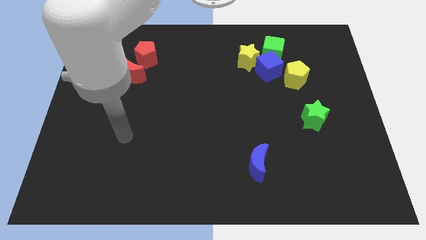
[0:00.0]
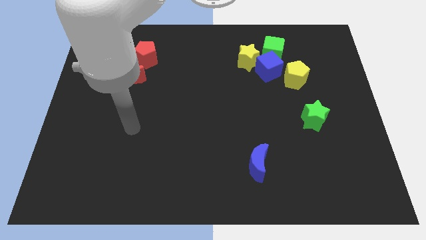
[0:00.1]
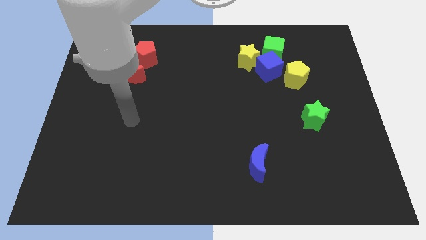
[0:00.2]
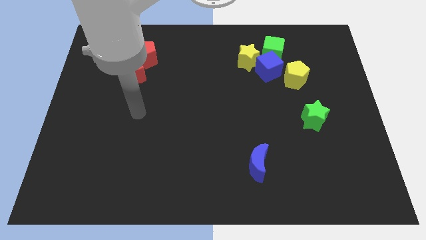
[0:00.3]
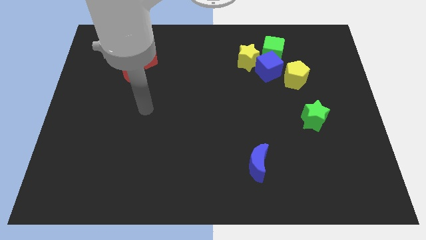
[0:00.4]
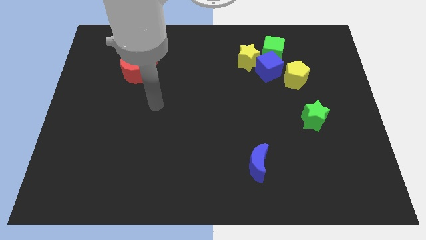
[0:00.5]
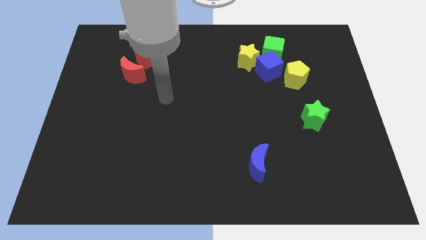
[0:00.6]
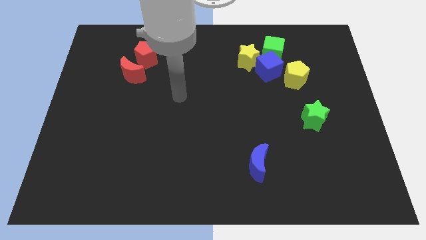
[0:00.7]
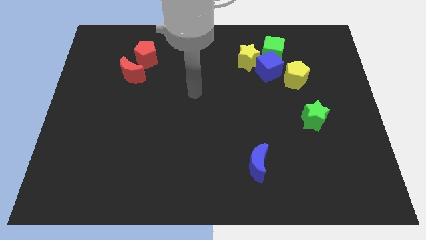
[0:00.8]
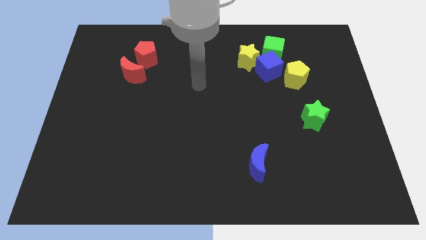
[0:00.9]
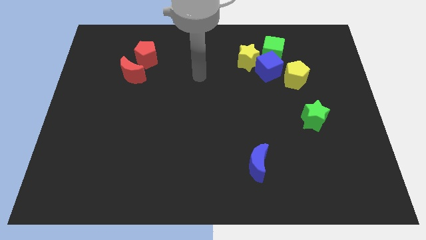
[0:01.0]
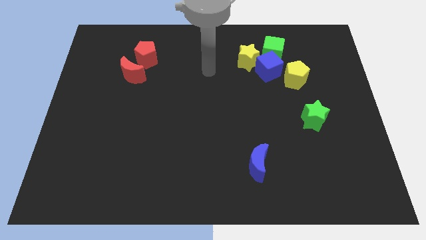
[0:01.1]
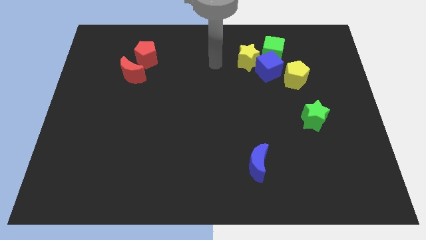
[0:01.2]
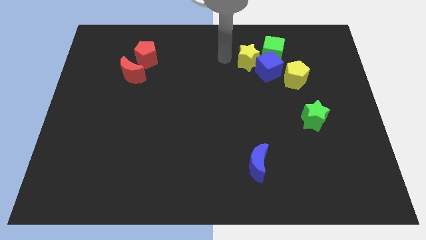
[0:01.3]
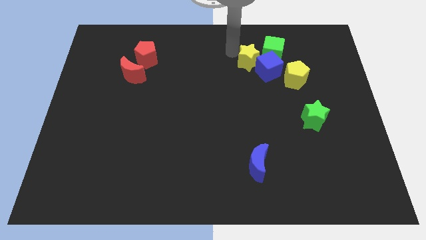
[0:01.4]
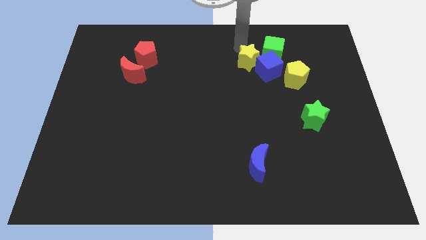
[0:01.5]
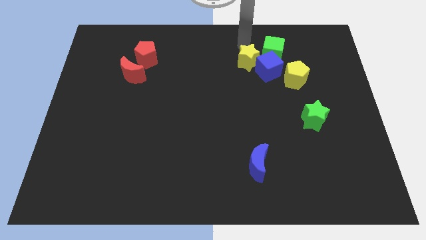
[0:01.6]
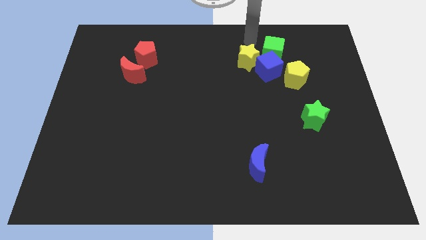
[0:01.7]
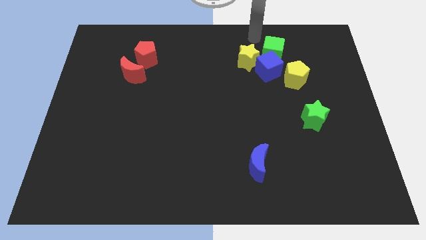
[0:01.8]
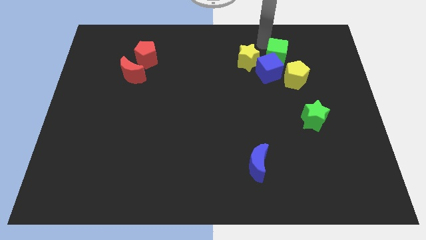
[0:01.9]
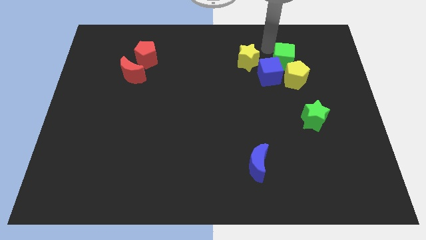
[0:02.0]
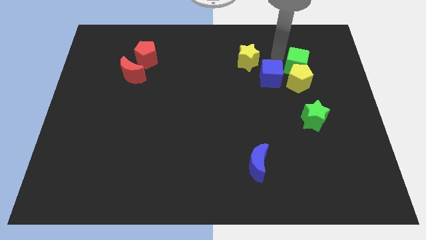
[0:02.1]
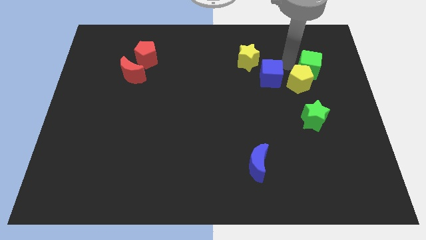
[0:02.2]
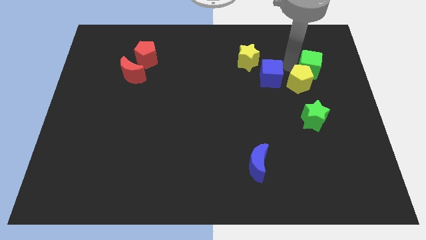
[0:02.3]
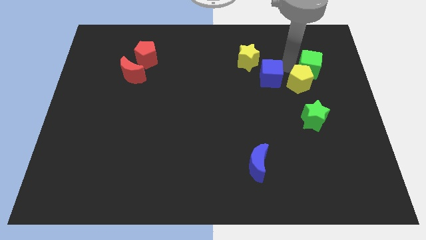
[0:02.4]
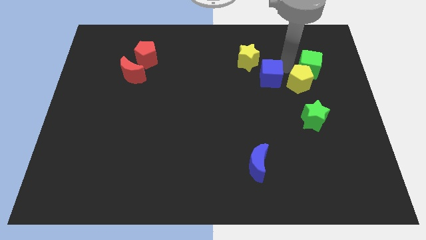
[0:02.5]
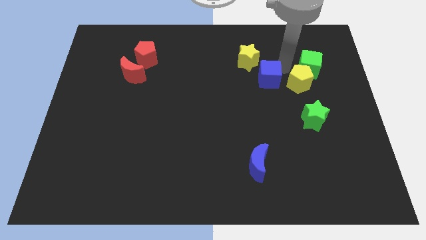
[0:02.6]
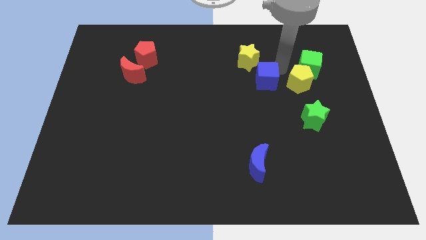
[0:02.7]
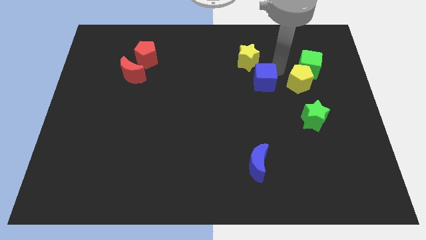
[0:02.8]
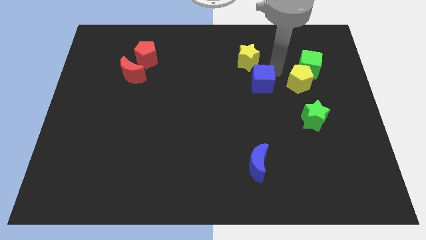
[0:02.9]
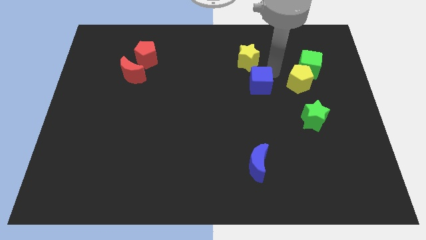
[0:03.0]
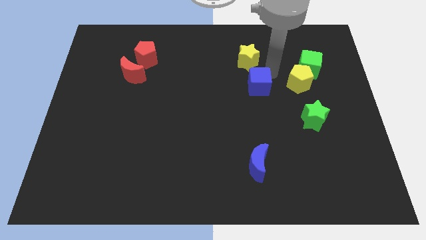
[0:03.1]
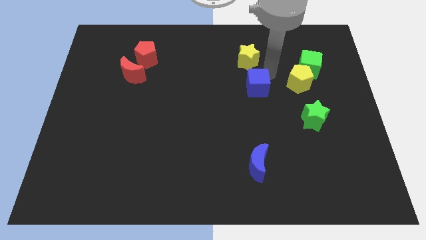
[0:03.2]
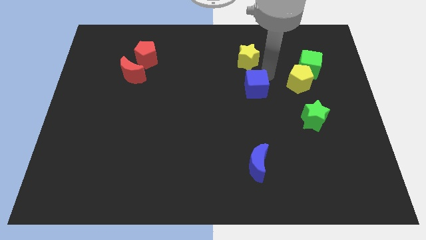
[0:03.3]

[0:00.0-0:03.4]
separate the blue cube from the yellow star, green cube, and yellow pentagon

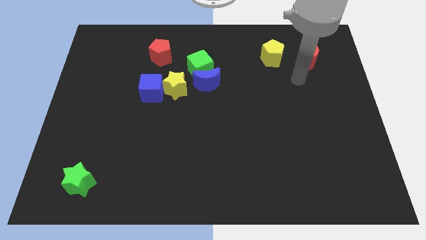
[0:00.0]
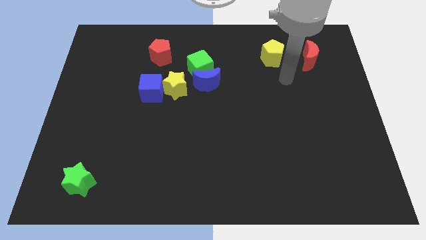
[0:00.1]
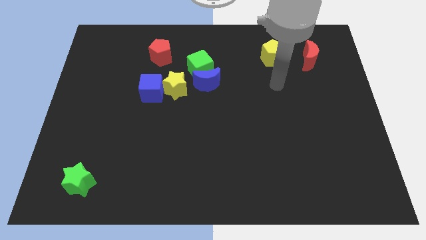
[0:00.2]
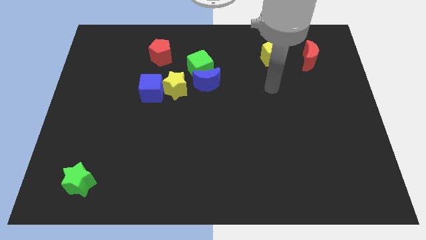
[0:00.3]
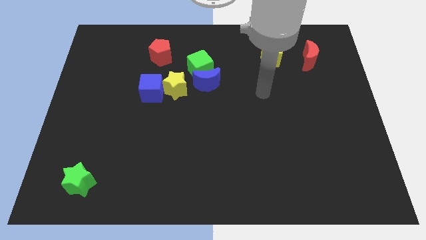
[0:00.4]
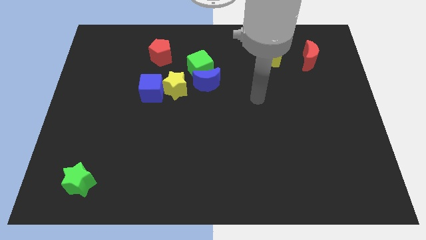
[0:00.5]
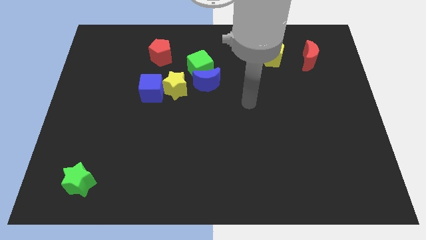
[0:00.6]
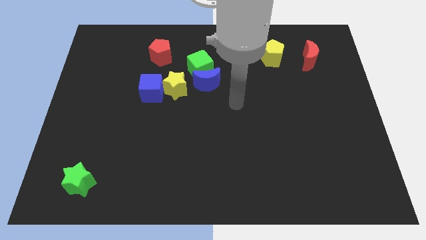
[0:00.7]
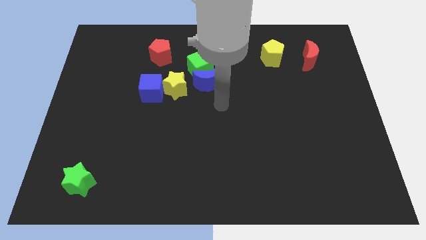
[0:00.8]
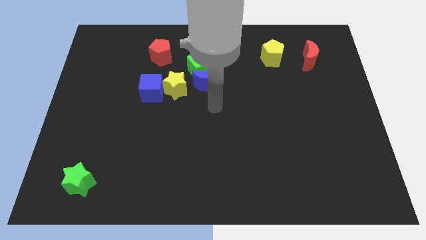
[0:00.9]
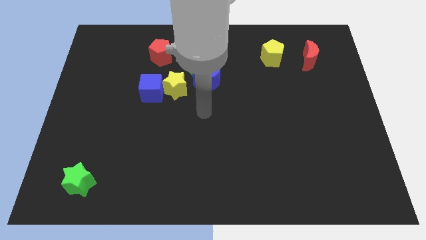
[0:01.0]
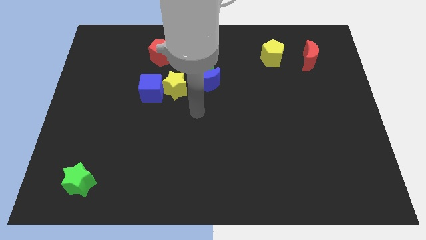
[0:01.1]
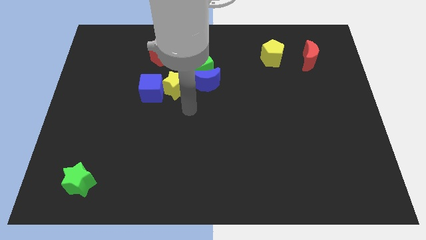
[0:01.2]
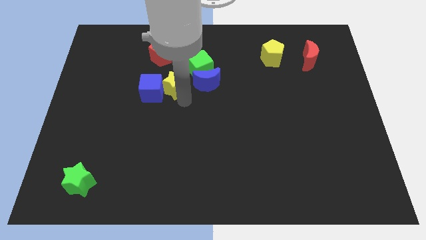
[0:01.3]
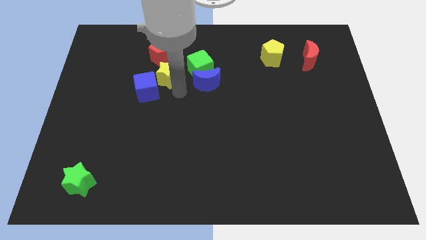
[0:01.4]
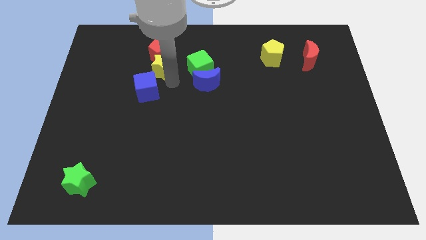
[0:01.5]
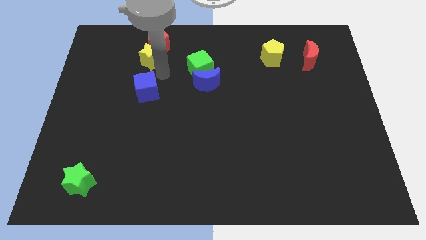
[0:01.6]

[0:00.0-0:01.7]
pull the blue cube apart from the yellow star

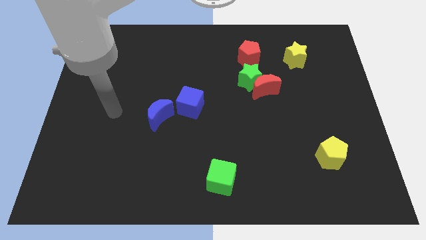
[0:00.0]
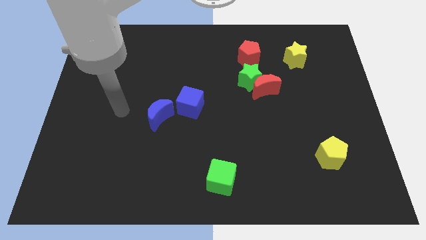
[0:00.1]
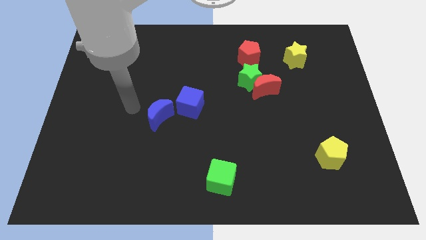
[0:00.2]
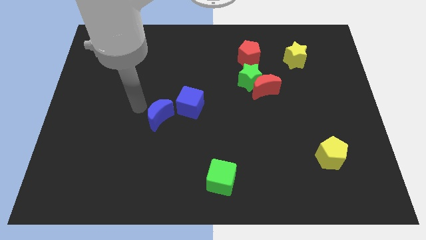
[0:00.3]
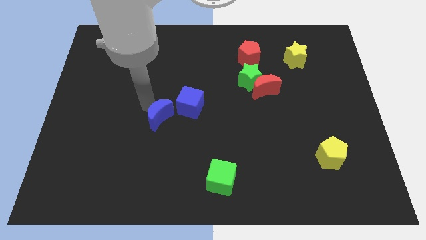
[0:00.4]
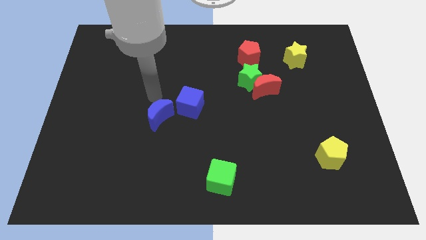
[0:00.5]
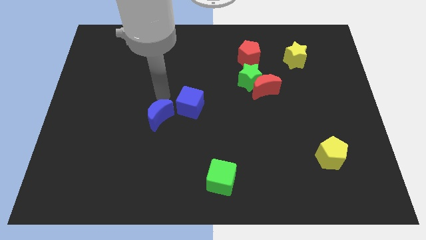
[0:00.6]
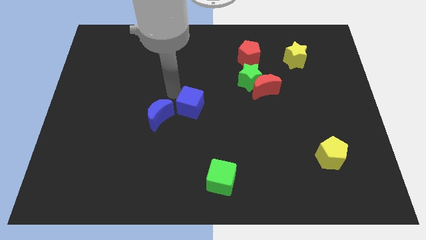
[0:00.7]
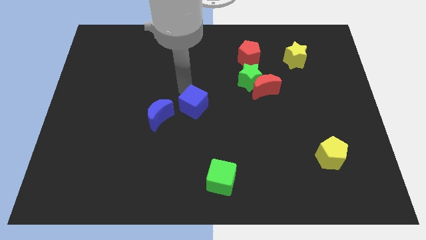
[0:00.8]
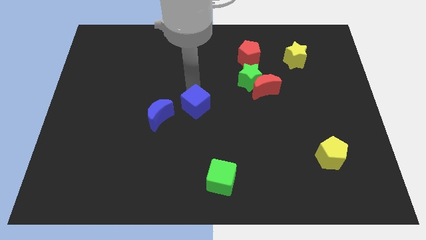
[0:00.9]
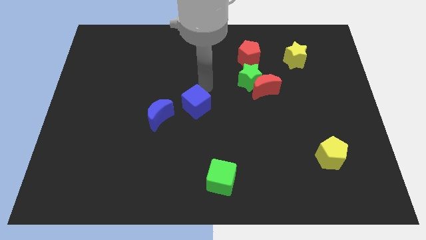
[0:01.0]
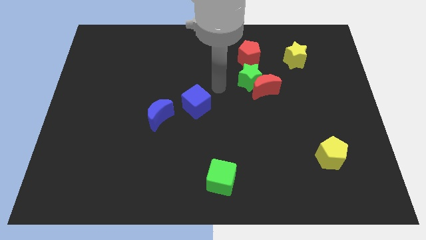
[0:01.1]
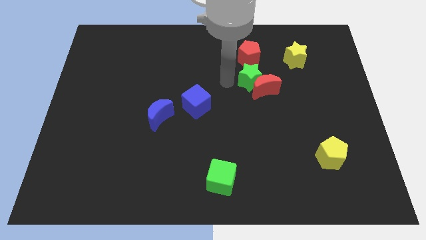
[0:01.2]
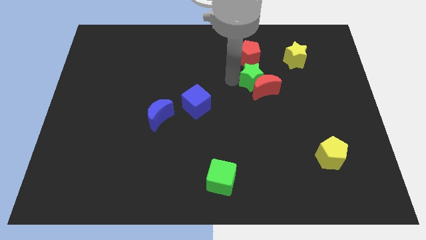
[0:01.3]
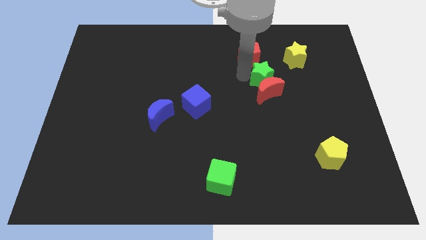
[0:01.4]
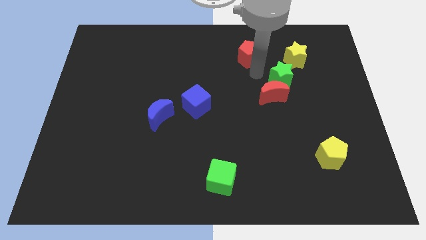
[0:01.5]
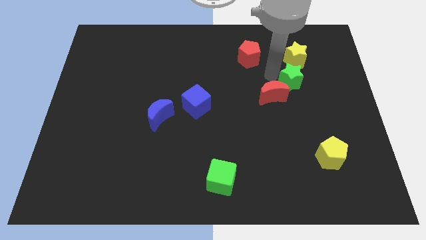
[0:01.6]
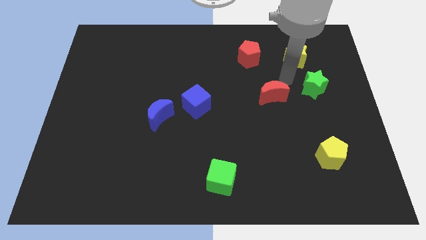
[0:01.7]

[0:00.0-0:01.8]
pull the red moon apart from the green star

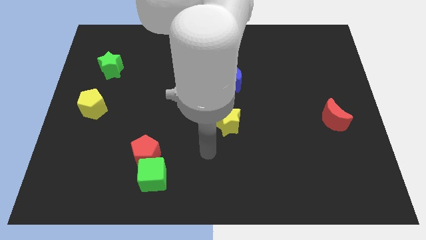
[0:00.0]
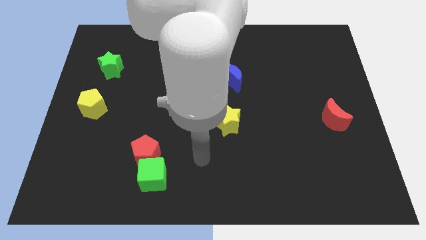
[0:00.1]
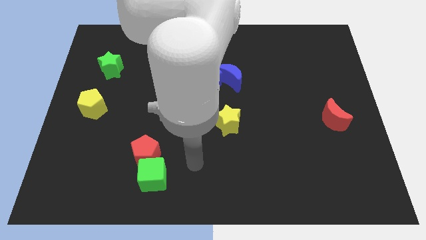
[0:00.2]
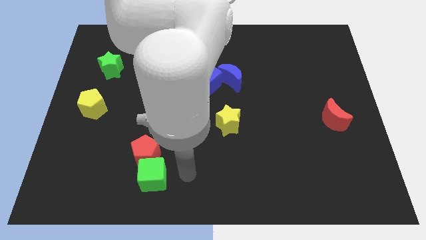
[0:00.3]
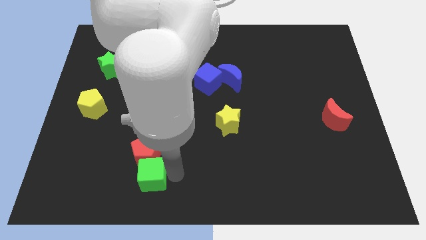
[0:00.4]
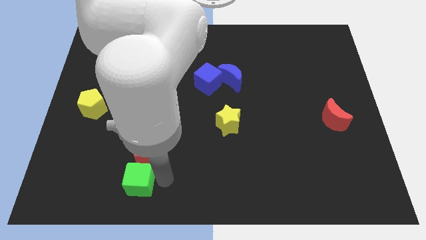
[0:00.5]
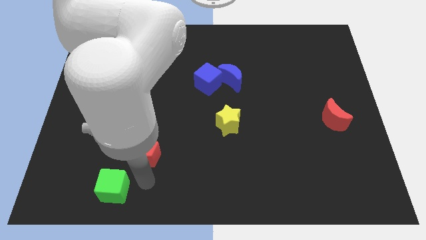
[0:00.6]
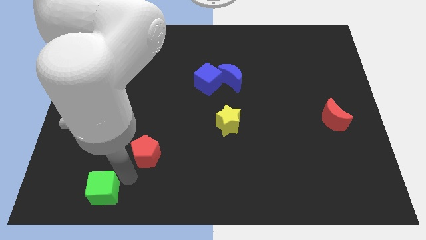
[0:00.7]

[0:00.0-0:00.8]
separate the red pentagon from the green cube

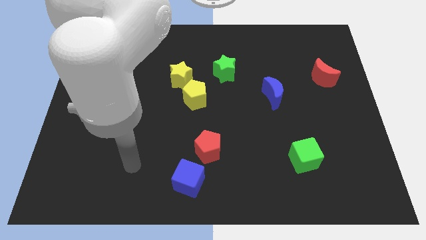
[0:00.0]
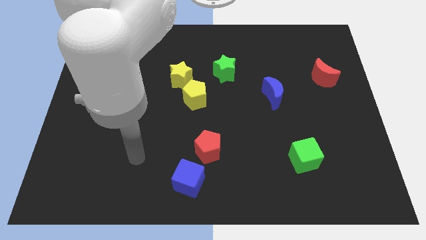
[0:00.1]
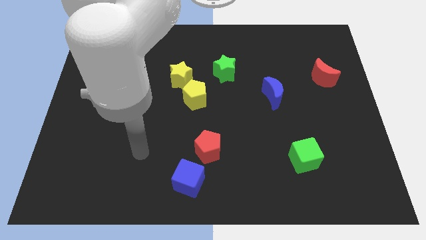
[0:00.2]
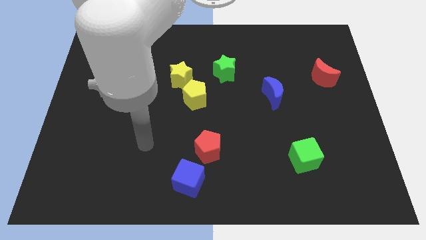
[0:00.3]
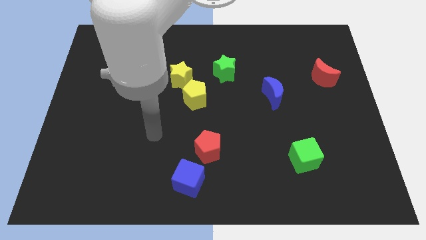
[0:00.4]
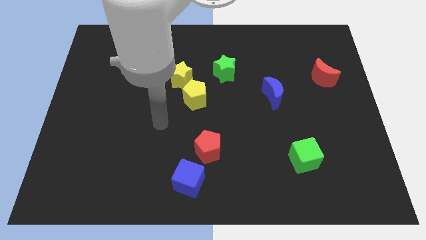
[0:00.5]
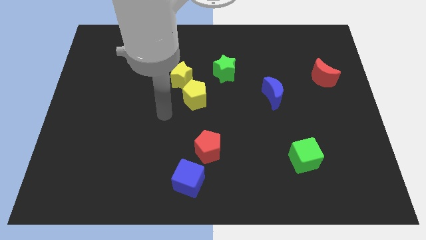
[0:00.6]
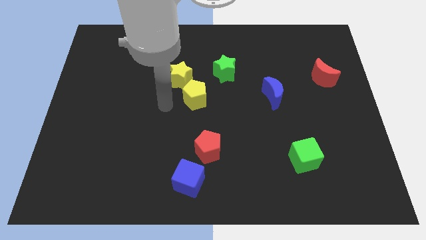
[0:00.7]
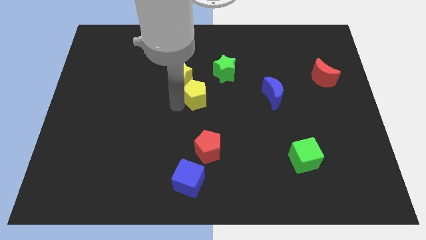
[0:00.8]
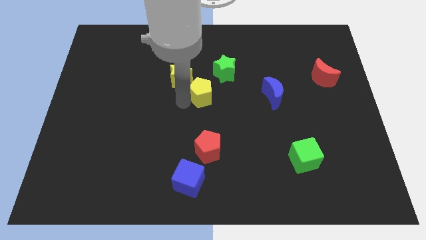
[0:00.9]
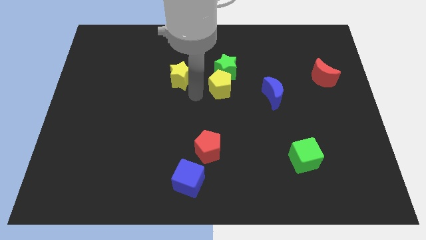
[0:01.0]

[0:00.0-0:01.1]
separate the yellow star from the yellow pentagon

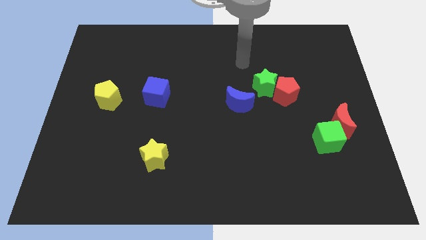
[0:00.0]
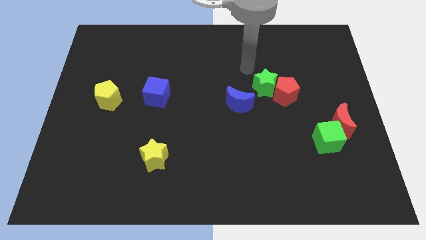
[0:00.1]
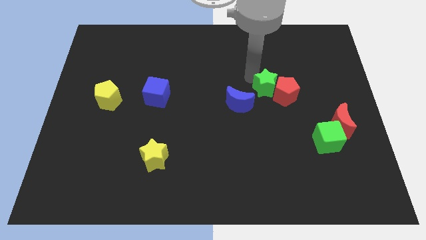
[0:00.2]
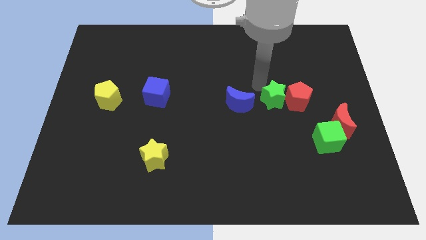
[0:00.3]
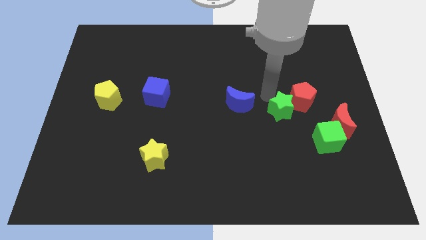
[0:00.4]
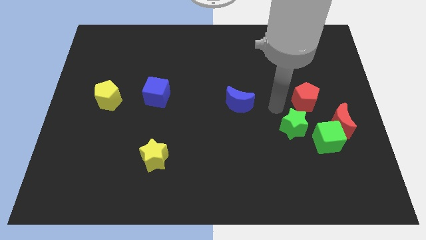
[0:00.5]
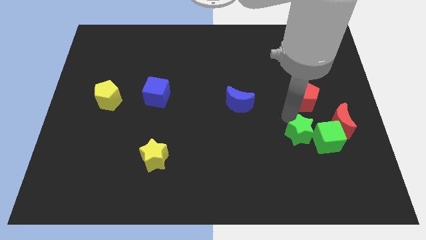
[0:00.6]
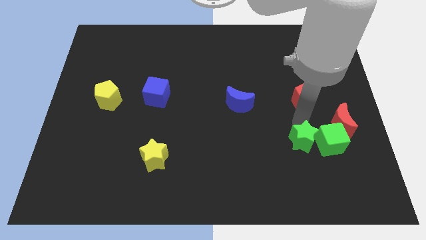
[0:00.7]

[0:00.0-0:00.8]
move the red pentagon away from the green star
